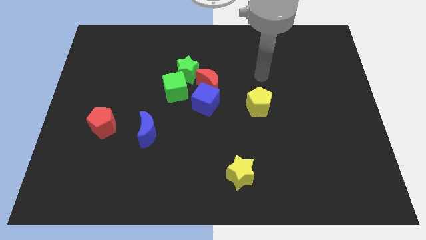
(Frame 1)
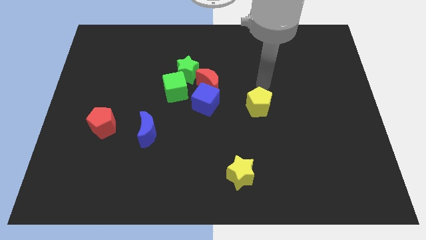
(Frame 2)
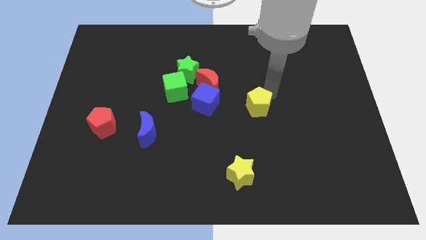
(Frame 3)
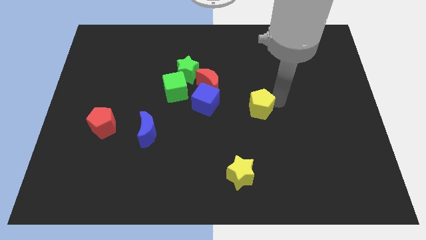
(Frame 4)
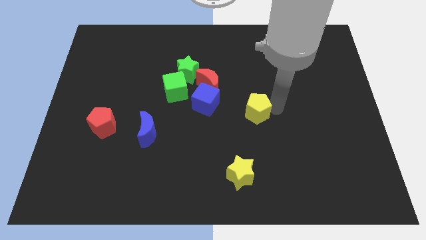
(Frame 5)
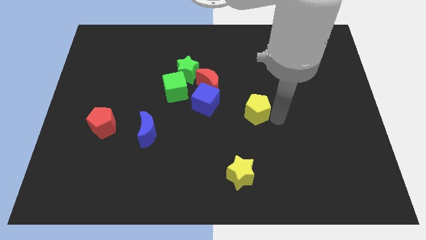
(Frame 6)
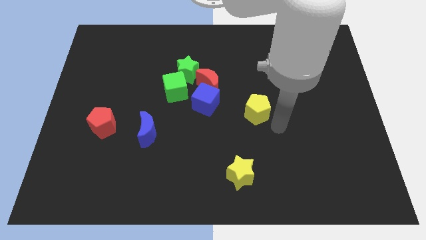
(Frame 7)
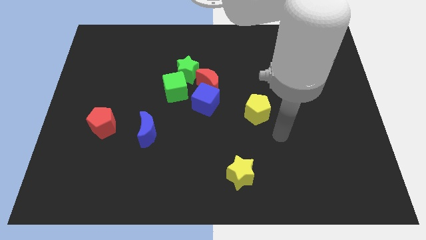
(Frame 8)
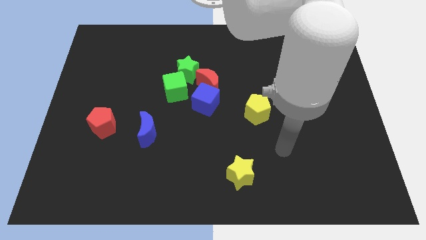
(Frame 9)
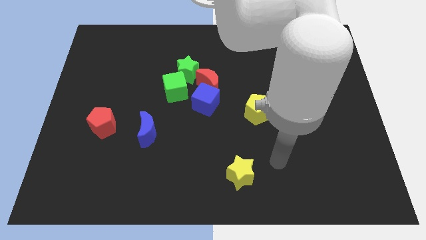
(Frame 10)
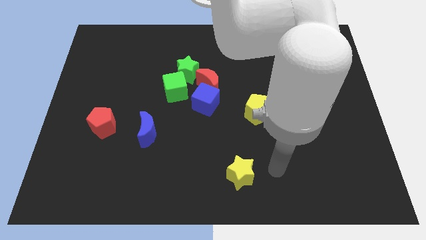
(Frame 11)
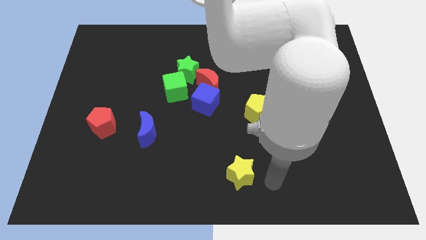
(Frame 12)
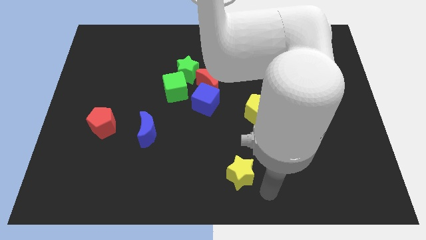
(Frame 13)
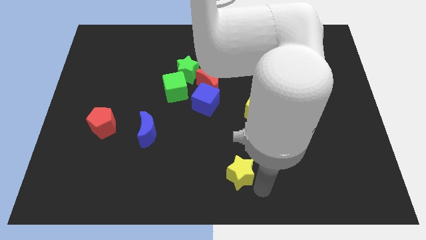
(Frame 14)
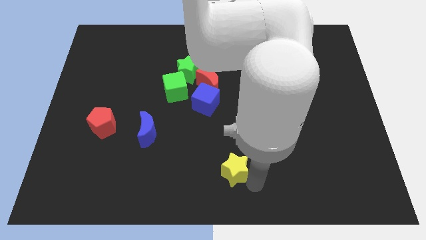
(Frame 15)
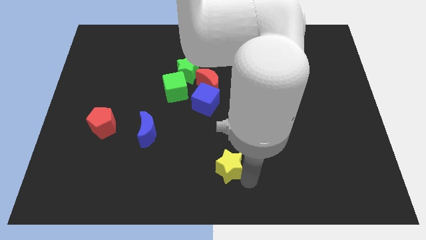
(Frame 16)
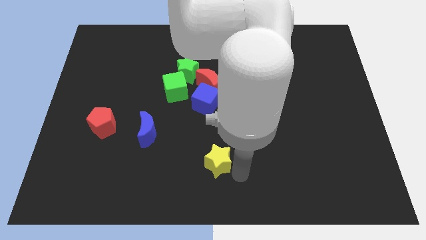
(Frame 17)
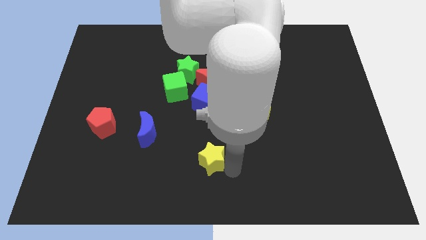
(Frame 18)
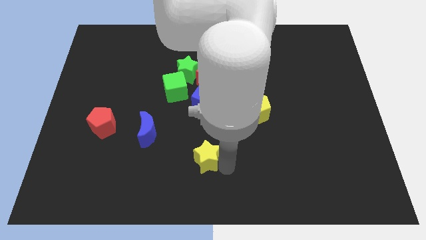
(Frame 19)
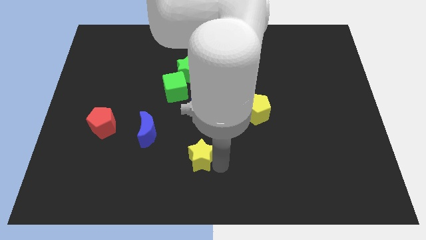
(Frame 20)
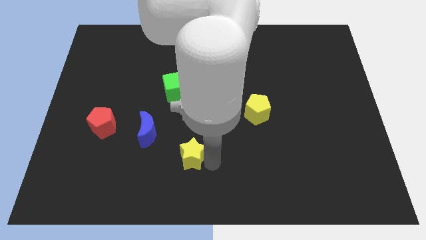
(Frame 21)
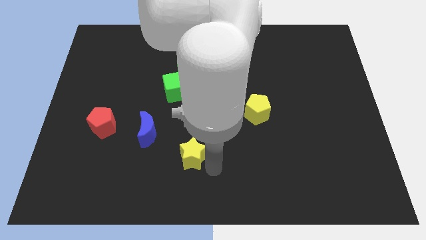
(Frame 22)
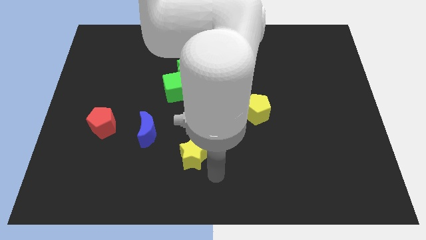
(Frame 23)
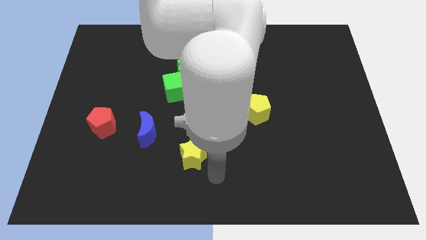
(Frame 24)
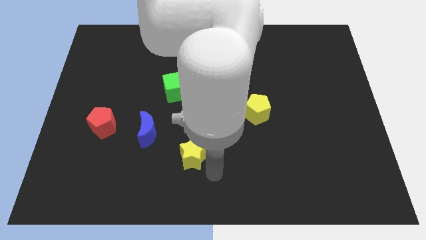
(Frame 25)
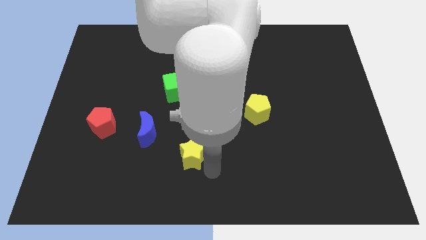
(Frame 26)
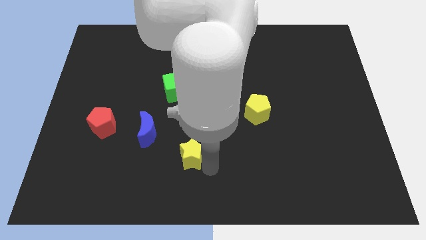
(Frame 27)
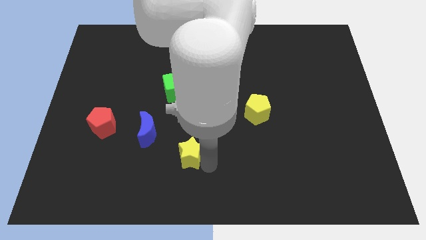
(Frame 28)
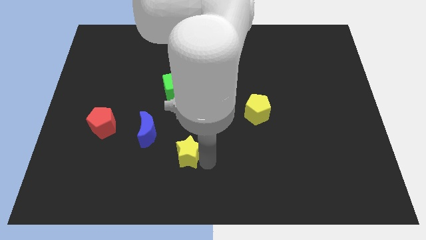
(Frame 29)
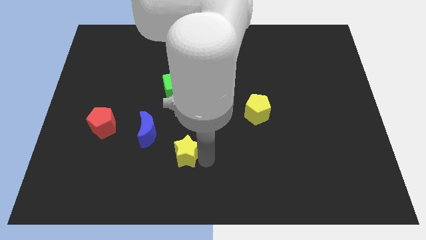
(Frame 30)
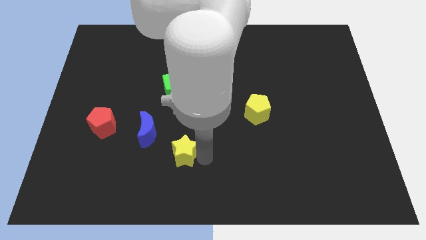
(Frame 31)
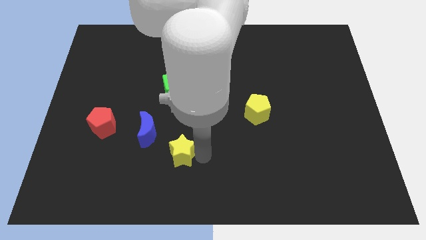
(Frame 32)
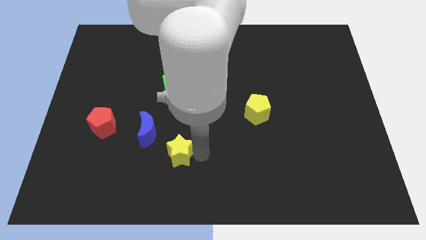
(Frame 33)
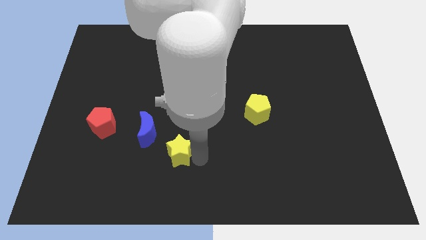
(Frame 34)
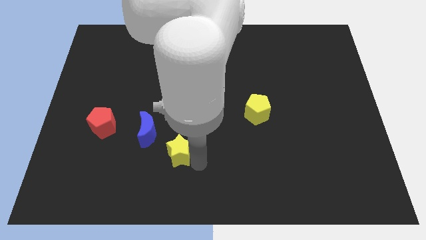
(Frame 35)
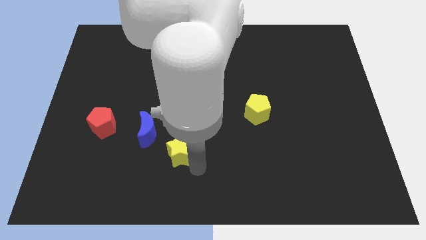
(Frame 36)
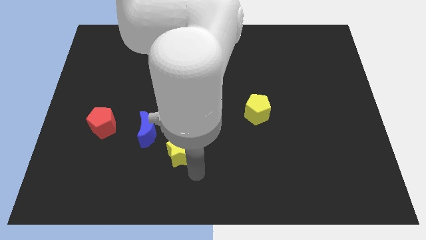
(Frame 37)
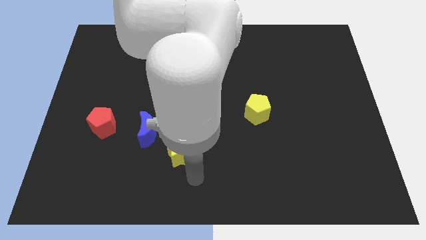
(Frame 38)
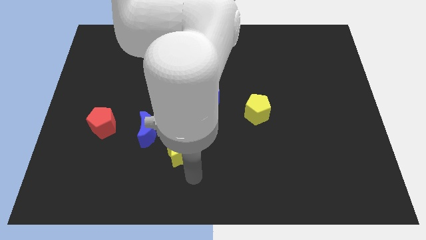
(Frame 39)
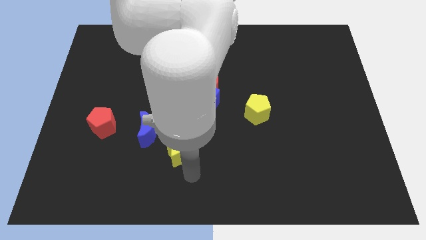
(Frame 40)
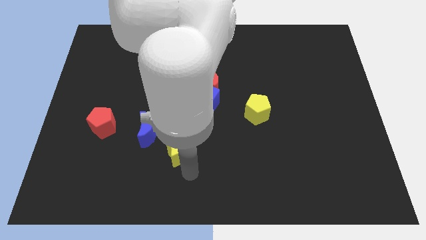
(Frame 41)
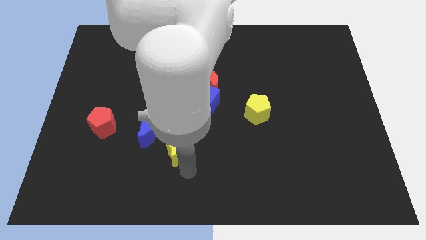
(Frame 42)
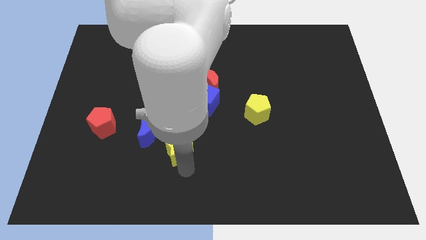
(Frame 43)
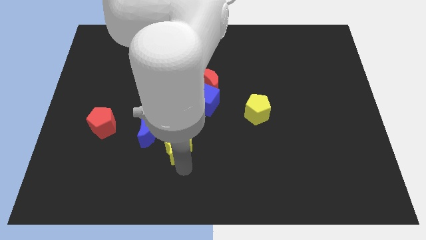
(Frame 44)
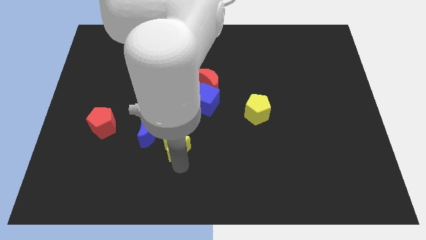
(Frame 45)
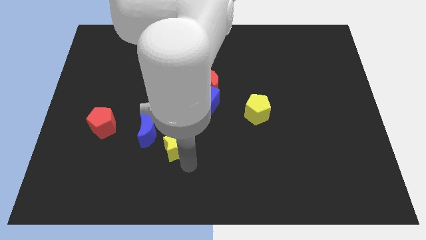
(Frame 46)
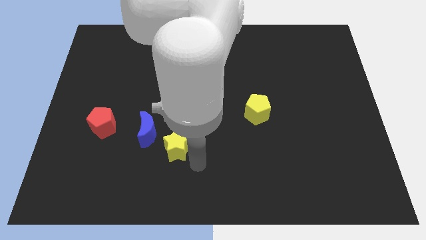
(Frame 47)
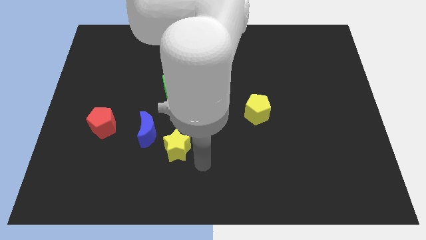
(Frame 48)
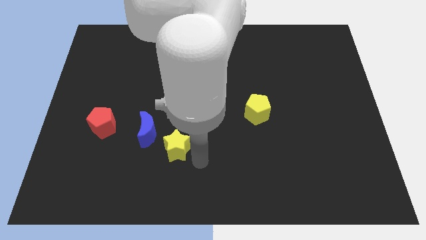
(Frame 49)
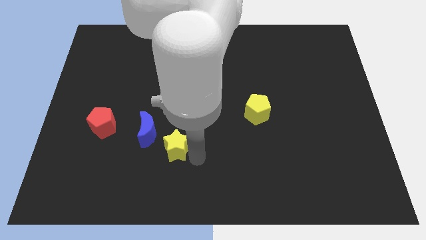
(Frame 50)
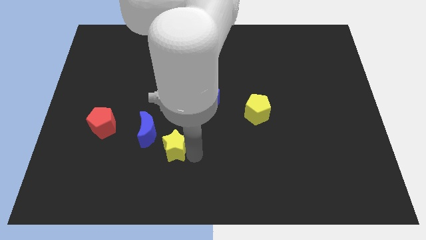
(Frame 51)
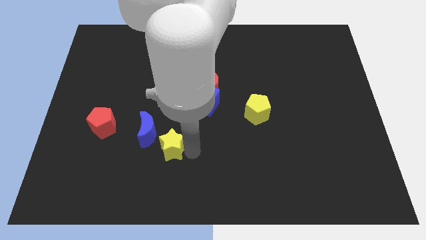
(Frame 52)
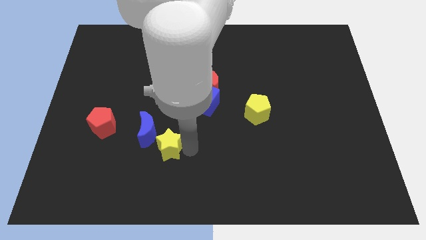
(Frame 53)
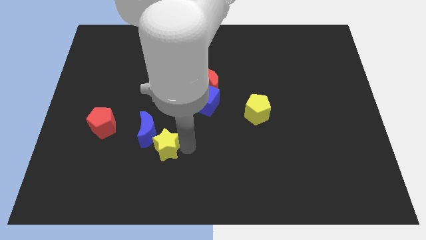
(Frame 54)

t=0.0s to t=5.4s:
move the yellow star to the blue moon
